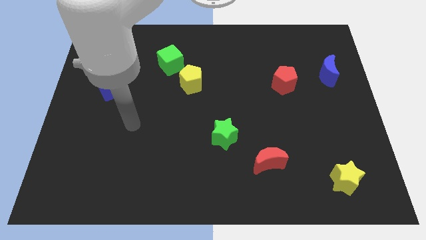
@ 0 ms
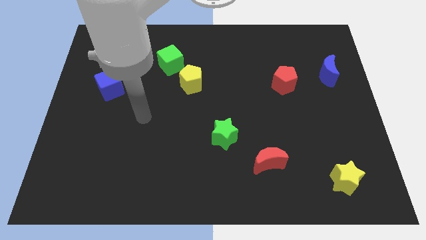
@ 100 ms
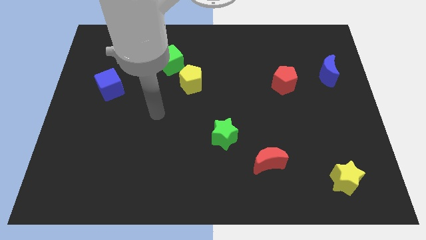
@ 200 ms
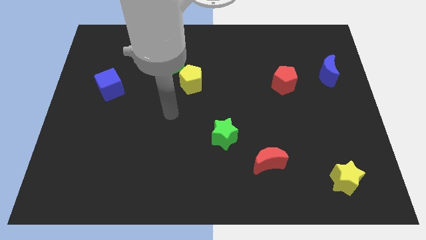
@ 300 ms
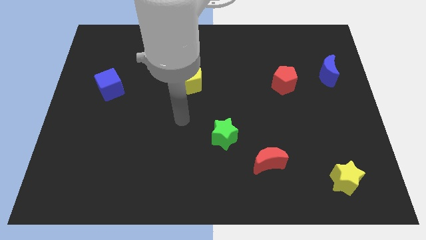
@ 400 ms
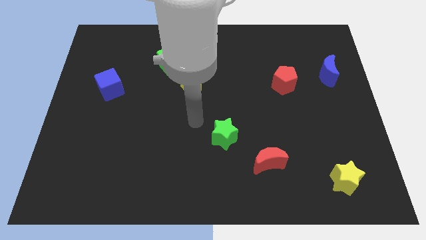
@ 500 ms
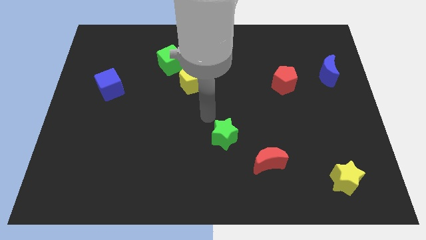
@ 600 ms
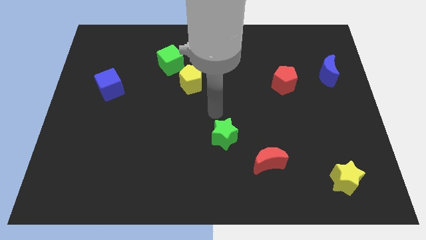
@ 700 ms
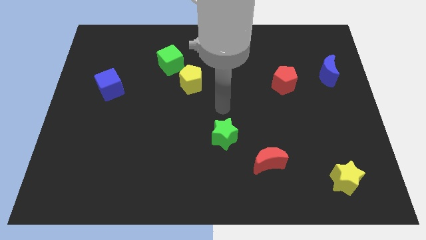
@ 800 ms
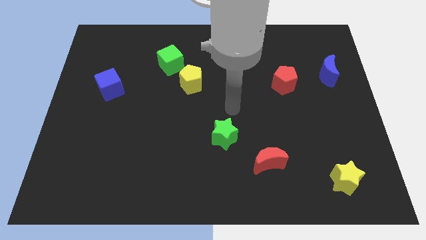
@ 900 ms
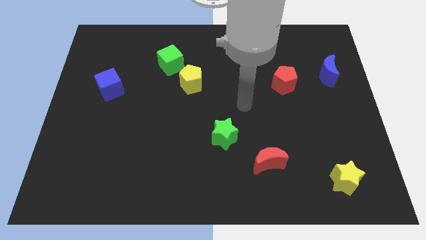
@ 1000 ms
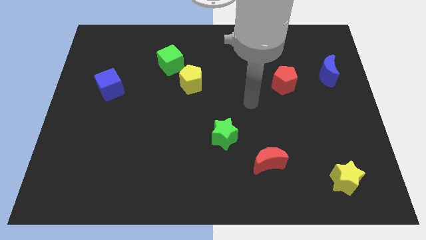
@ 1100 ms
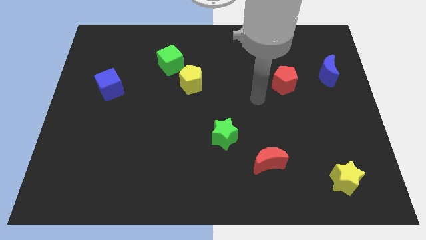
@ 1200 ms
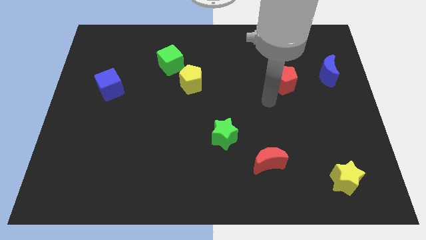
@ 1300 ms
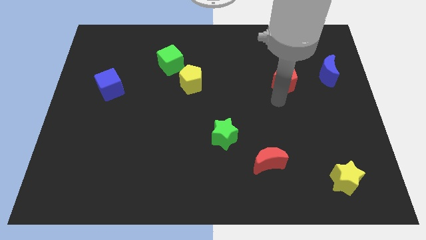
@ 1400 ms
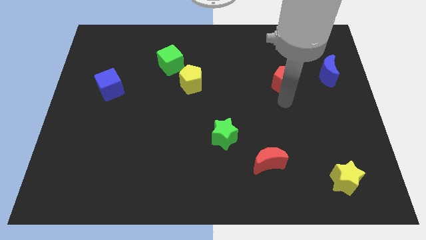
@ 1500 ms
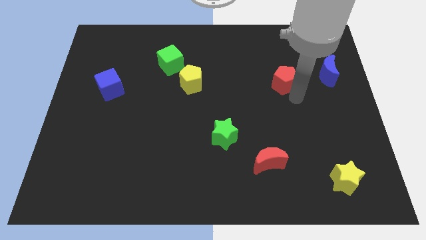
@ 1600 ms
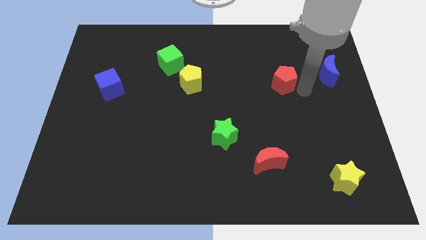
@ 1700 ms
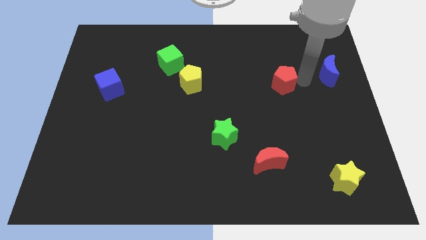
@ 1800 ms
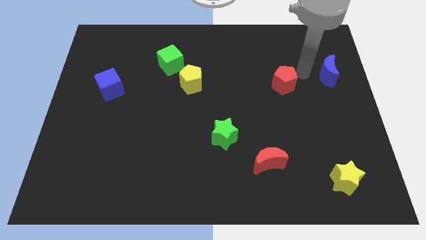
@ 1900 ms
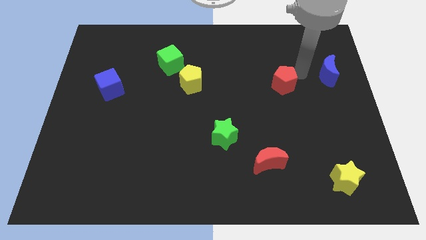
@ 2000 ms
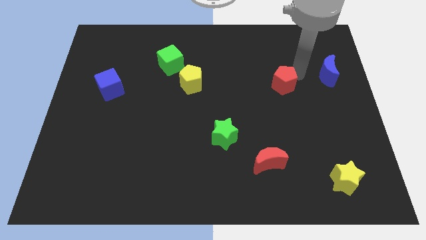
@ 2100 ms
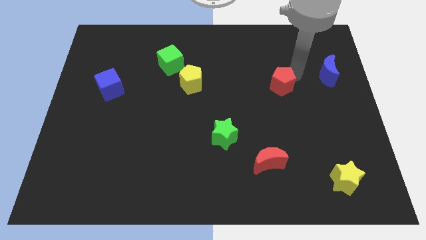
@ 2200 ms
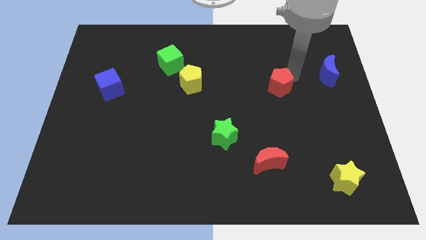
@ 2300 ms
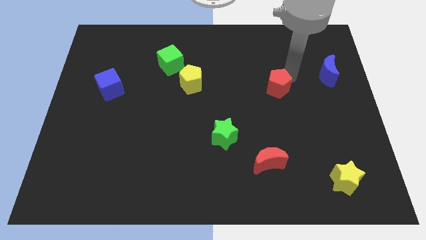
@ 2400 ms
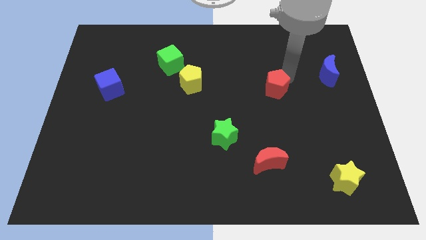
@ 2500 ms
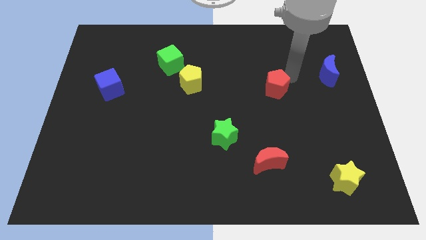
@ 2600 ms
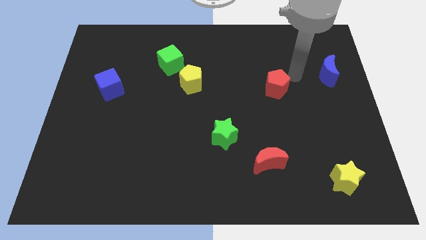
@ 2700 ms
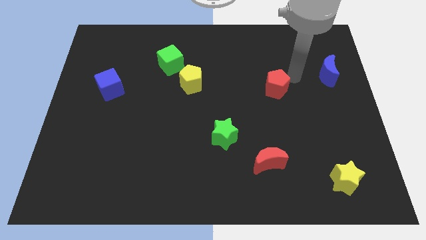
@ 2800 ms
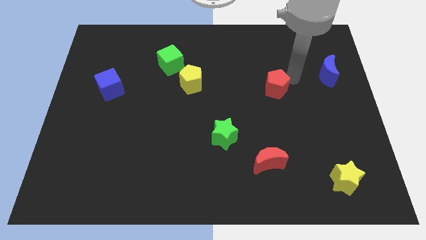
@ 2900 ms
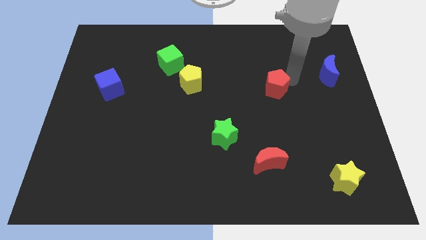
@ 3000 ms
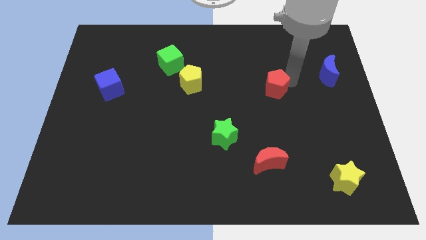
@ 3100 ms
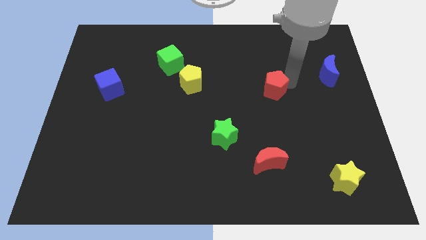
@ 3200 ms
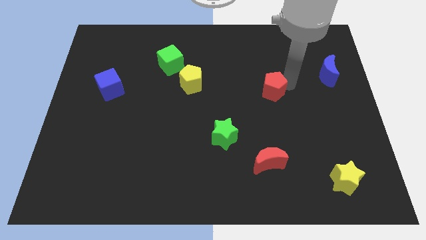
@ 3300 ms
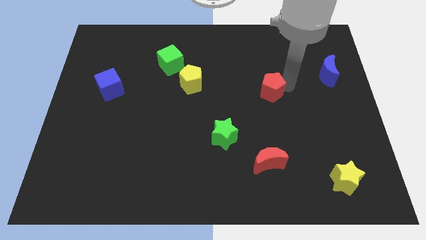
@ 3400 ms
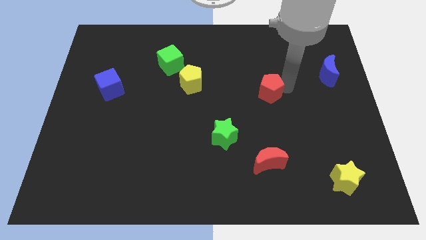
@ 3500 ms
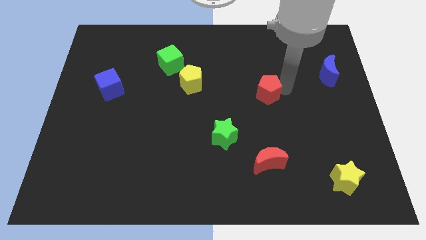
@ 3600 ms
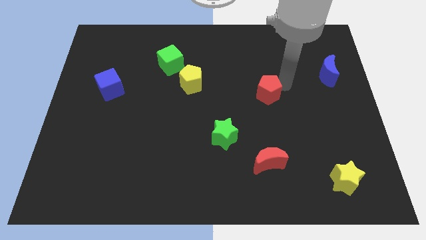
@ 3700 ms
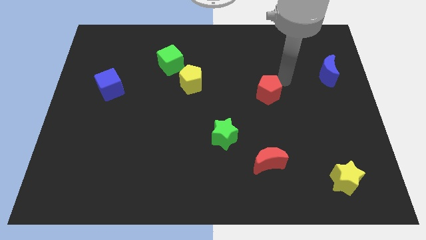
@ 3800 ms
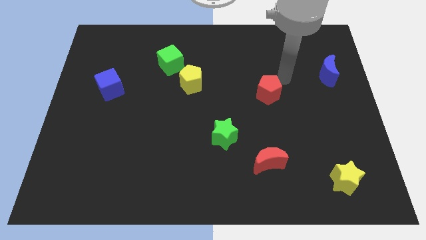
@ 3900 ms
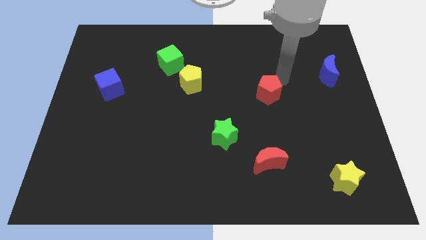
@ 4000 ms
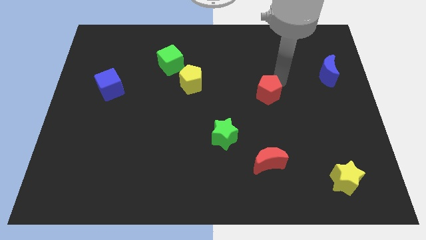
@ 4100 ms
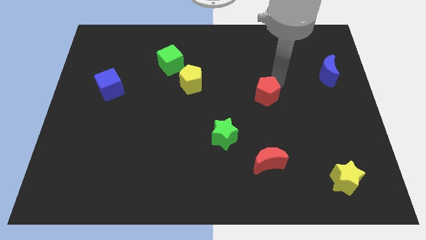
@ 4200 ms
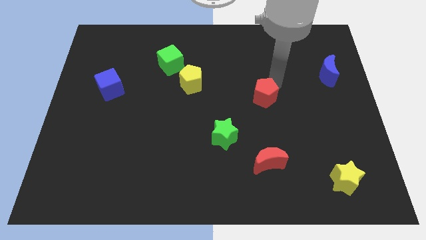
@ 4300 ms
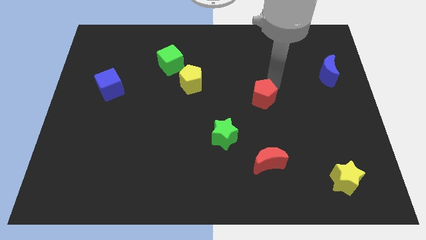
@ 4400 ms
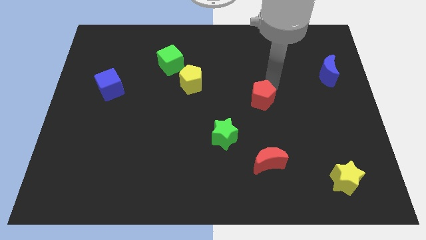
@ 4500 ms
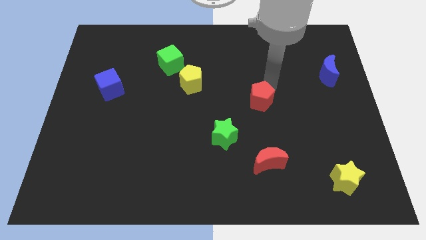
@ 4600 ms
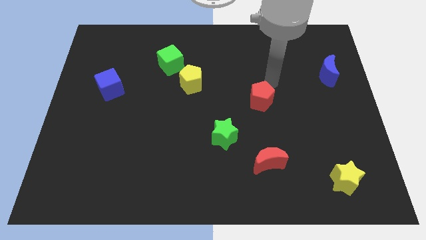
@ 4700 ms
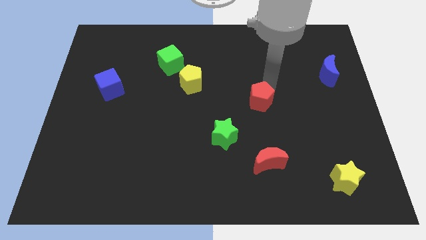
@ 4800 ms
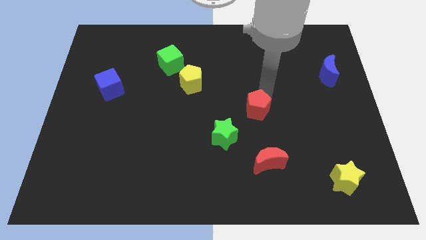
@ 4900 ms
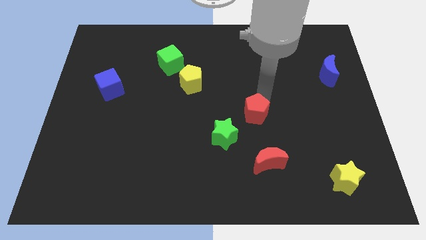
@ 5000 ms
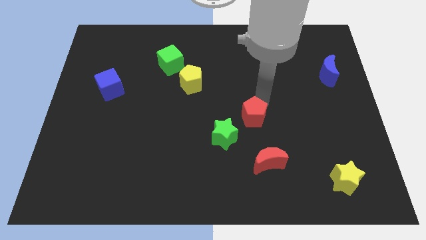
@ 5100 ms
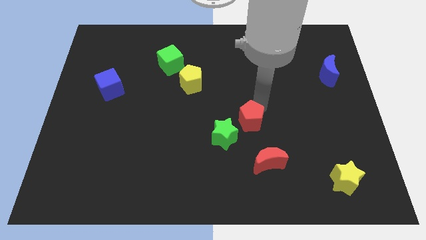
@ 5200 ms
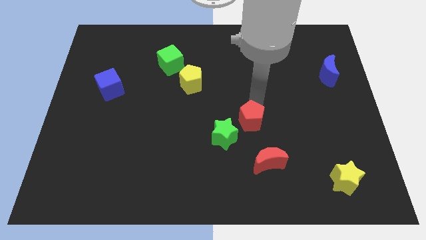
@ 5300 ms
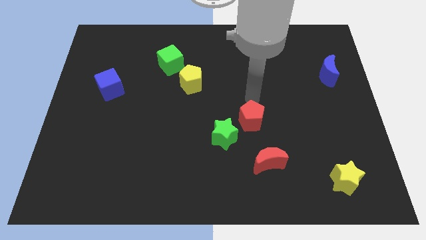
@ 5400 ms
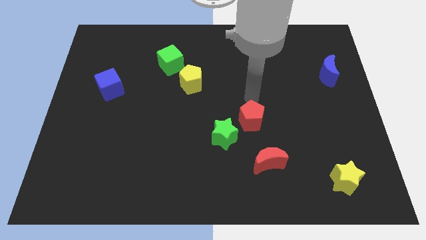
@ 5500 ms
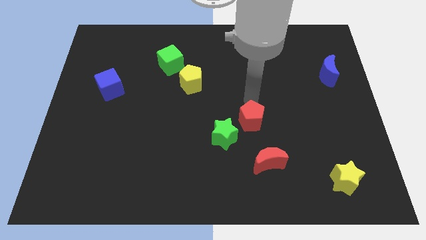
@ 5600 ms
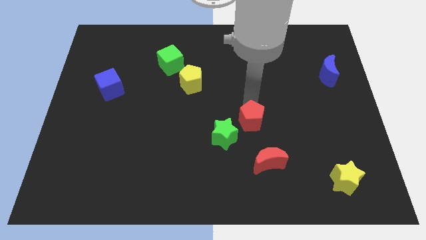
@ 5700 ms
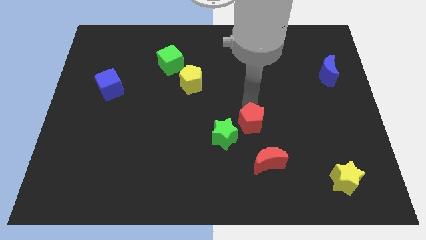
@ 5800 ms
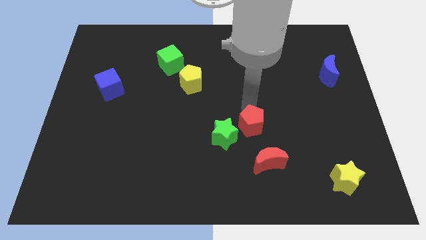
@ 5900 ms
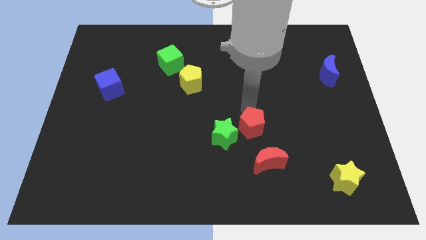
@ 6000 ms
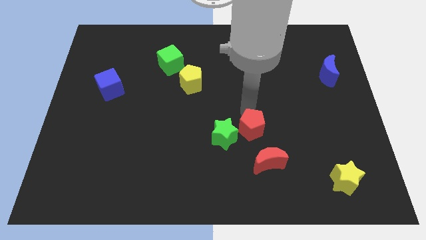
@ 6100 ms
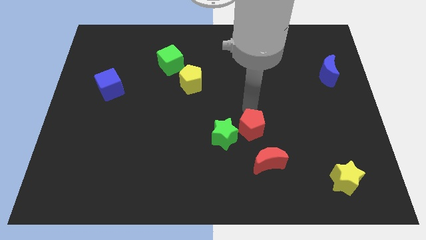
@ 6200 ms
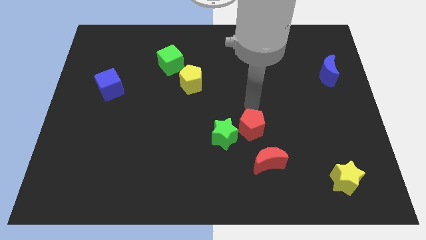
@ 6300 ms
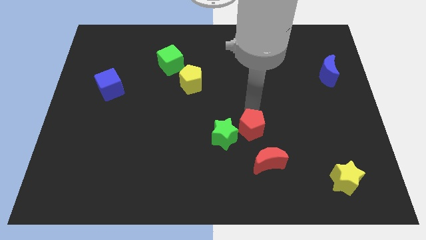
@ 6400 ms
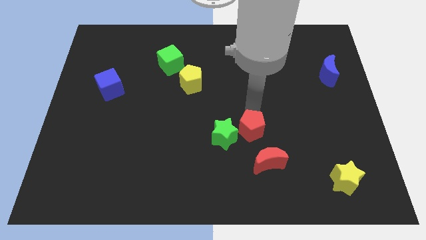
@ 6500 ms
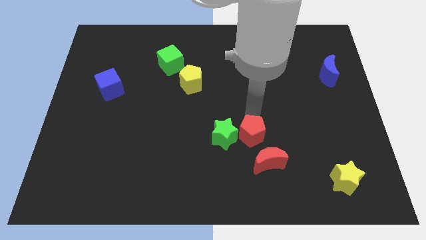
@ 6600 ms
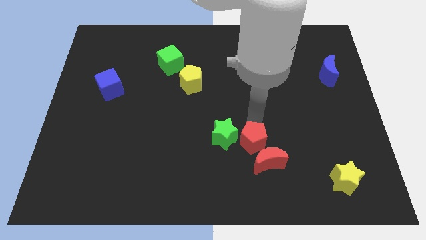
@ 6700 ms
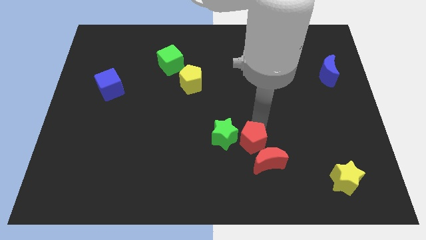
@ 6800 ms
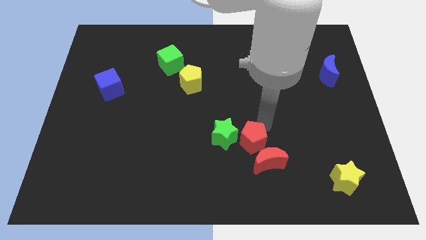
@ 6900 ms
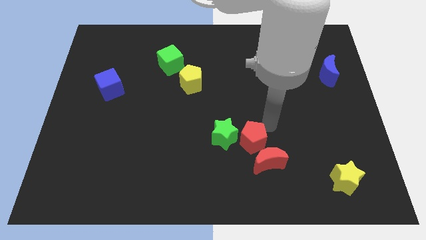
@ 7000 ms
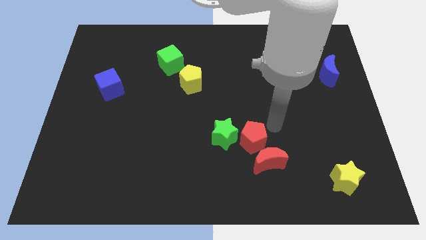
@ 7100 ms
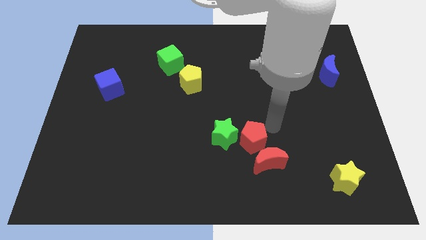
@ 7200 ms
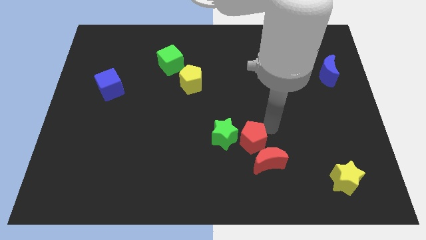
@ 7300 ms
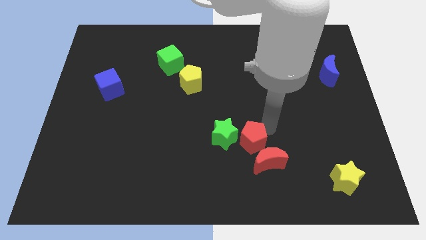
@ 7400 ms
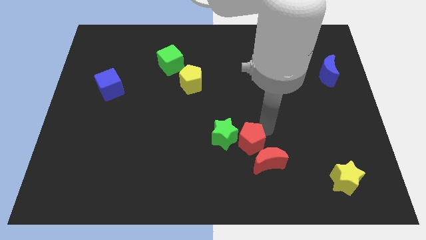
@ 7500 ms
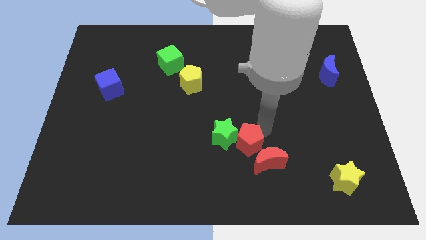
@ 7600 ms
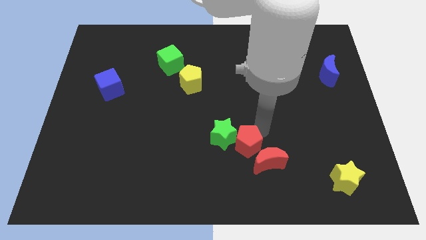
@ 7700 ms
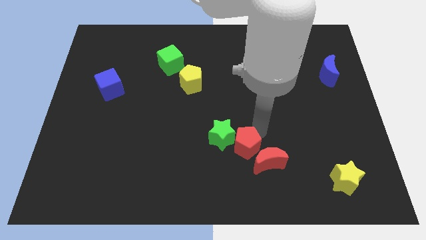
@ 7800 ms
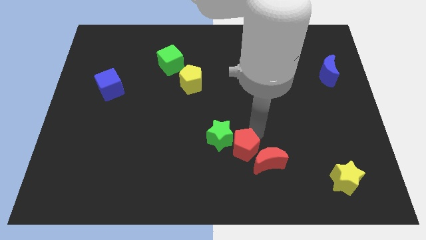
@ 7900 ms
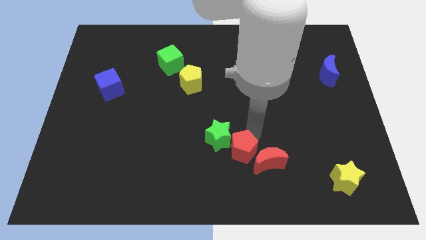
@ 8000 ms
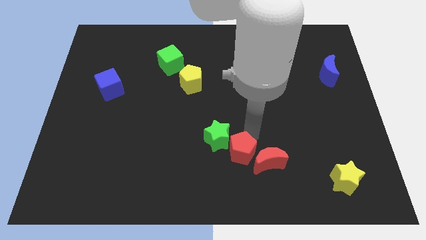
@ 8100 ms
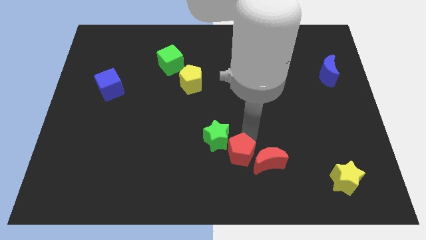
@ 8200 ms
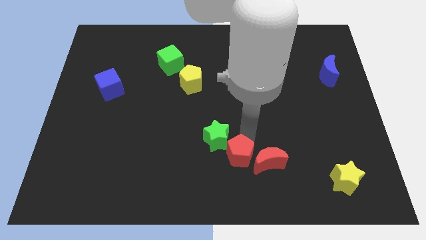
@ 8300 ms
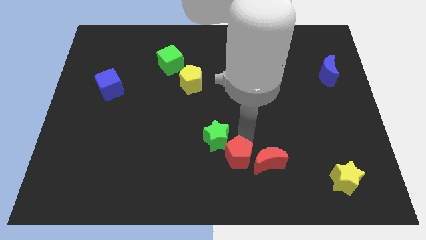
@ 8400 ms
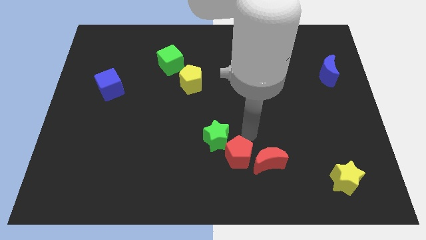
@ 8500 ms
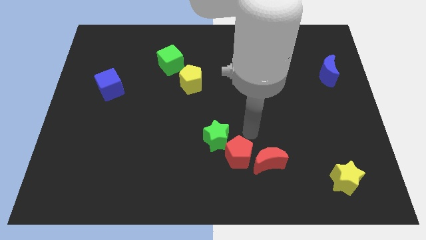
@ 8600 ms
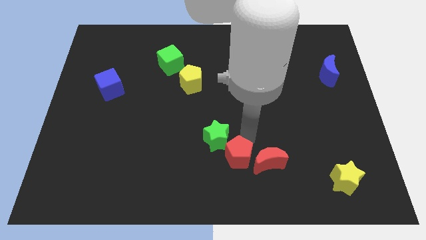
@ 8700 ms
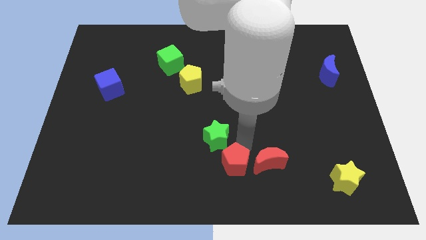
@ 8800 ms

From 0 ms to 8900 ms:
move the red pentagon to the bottom side
